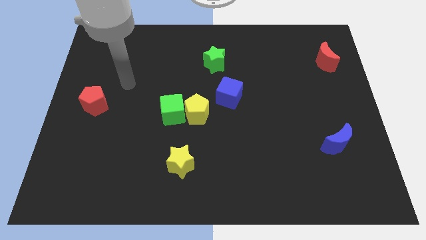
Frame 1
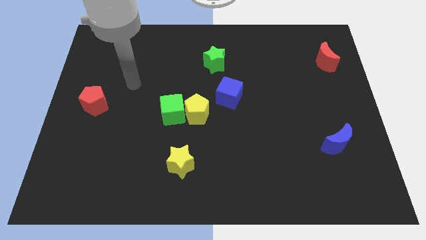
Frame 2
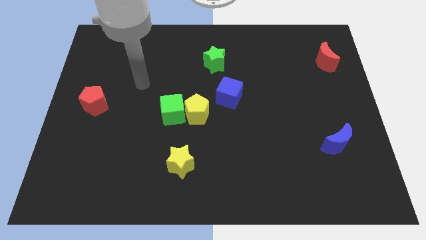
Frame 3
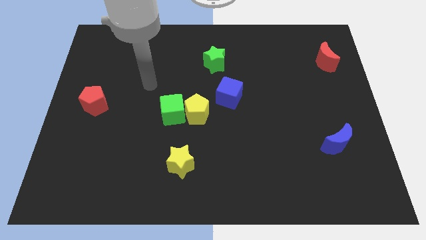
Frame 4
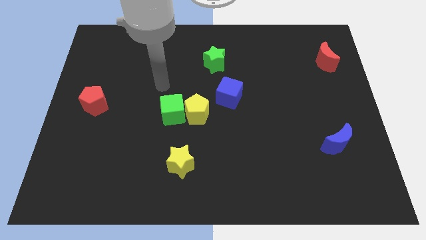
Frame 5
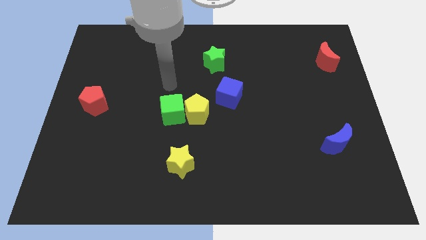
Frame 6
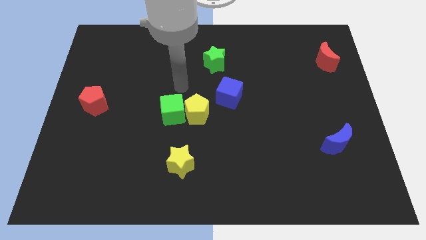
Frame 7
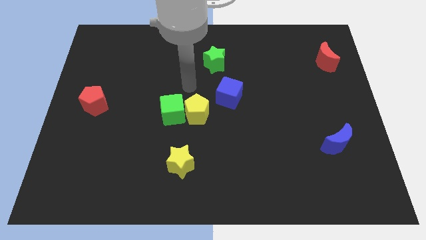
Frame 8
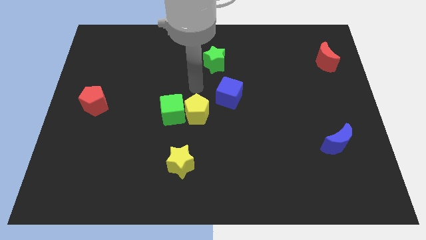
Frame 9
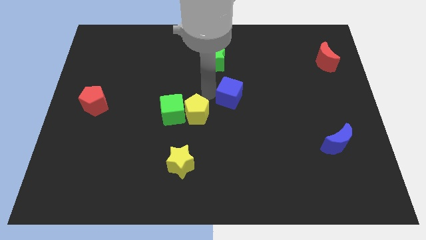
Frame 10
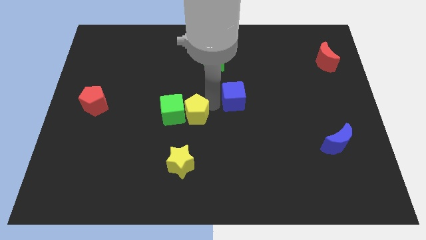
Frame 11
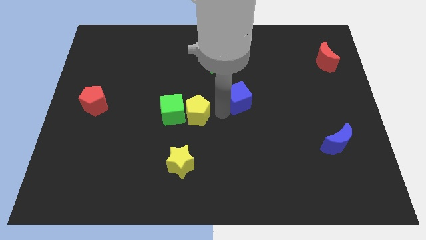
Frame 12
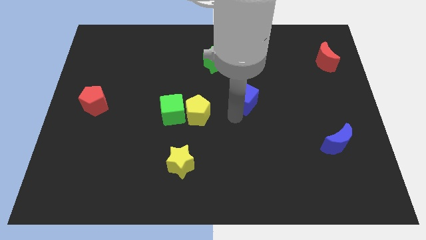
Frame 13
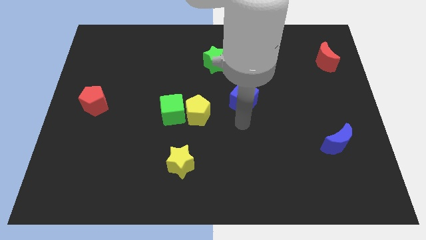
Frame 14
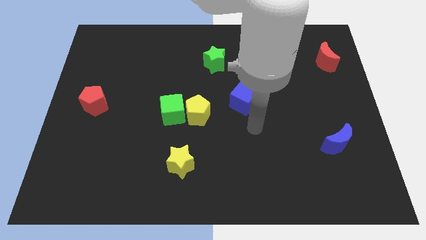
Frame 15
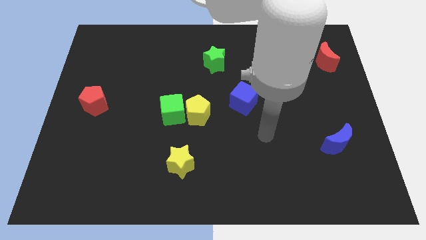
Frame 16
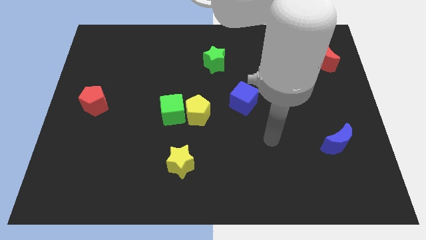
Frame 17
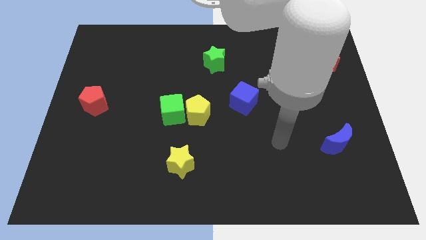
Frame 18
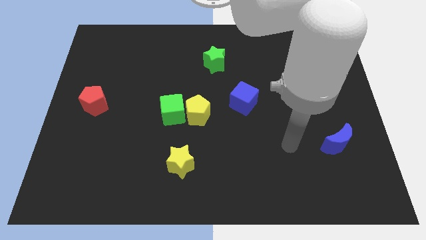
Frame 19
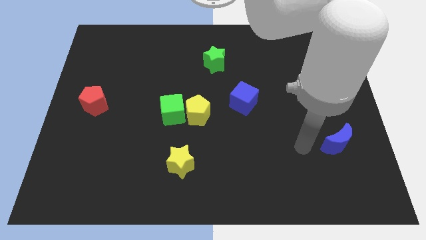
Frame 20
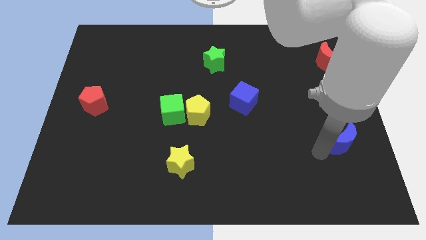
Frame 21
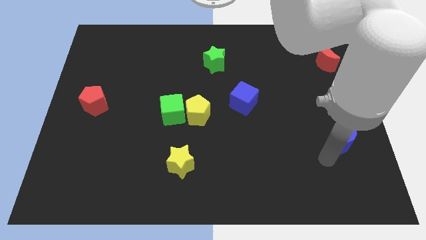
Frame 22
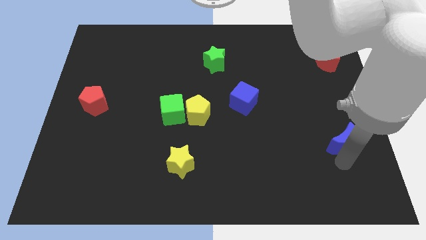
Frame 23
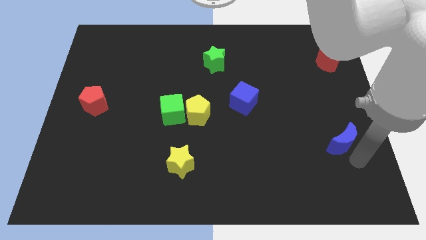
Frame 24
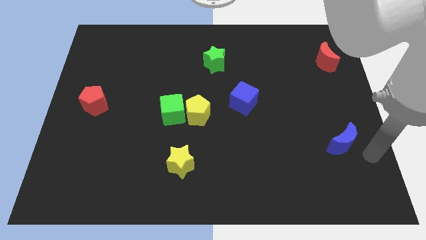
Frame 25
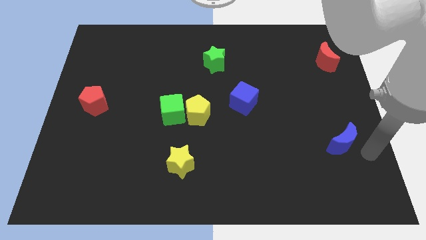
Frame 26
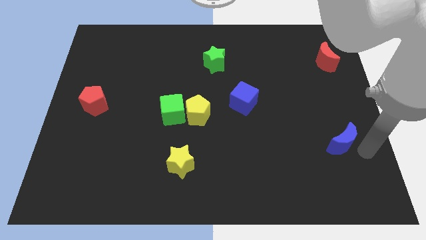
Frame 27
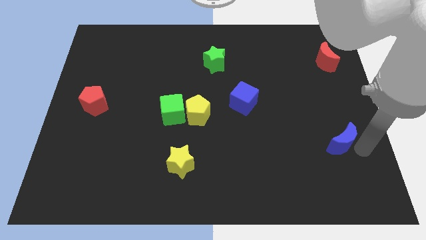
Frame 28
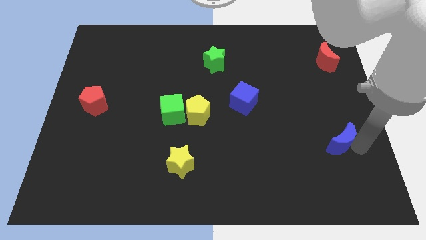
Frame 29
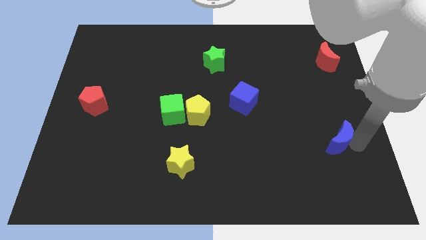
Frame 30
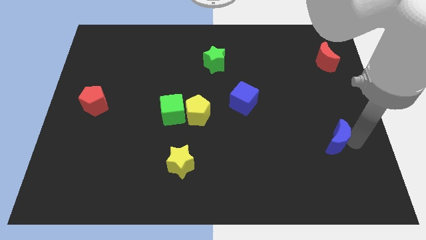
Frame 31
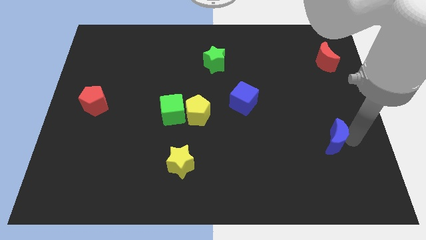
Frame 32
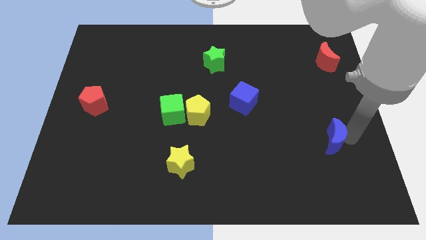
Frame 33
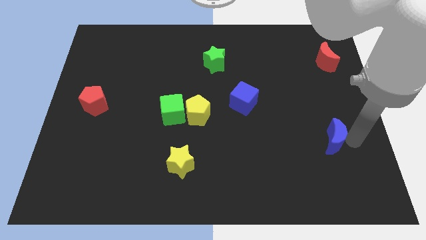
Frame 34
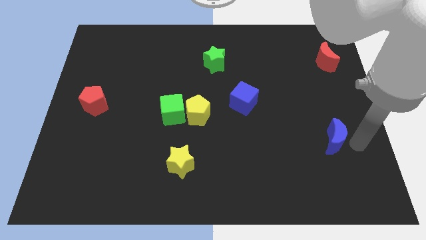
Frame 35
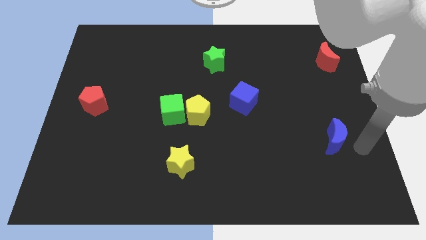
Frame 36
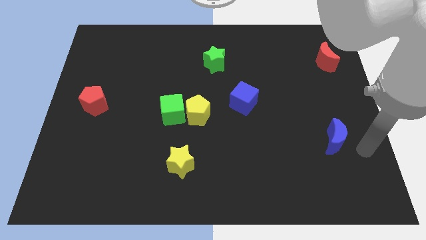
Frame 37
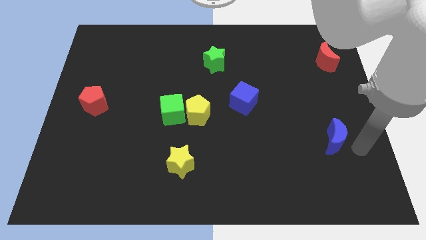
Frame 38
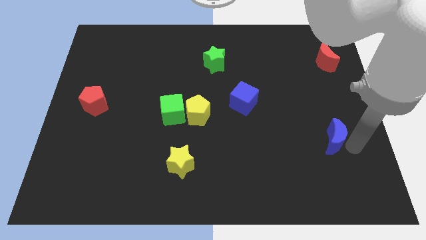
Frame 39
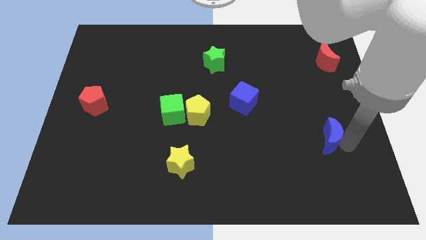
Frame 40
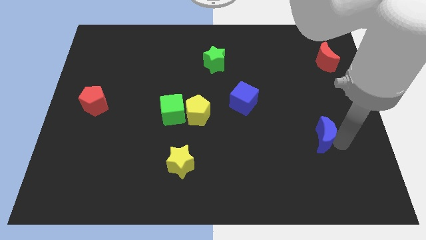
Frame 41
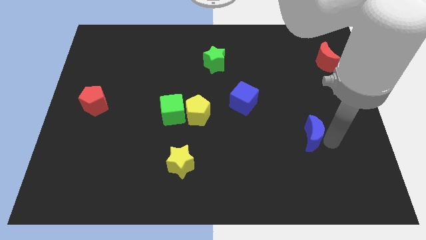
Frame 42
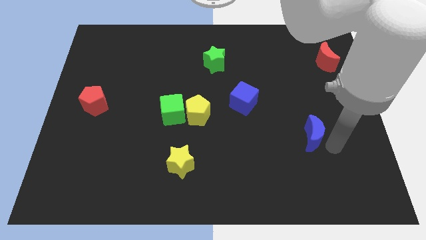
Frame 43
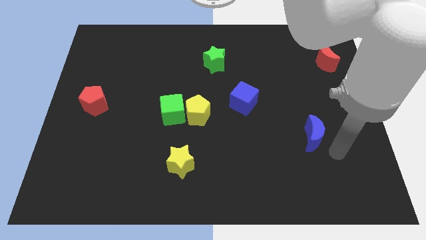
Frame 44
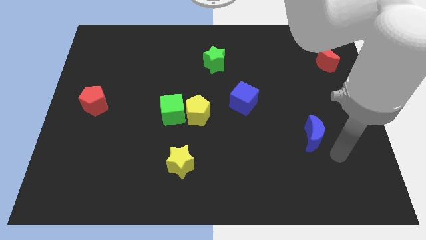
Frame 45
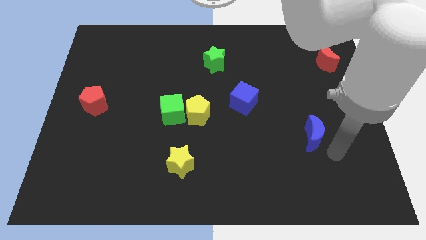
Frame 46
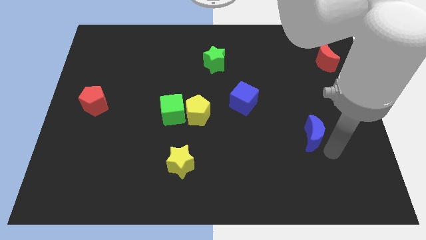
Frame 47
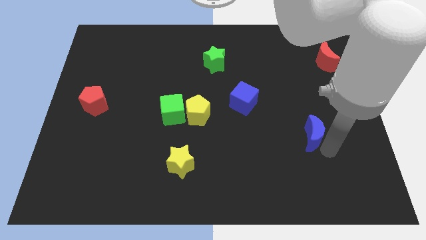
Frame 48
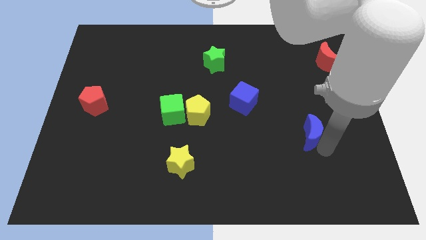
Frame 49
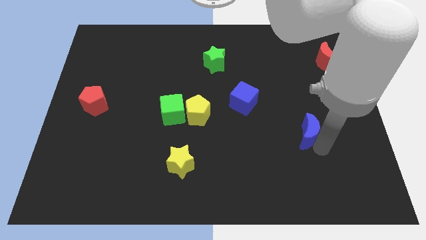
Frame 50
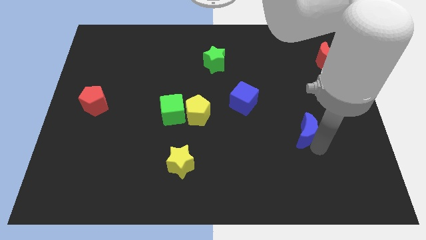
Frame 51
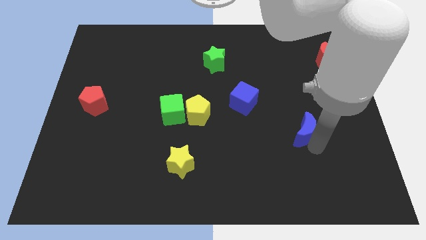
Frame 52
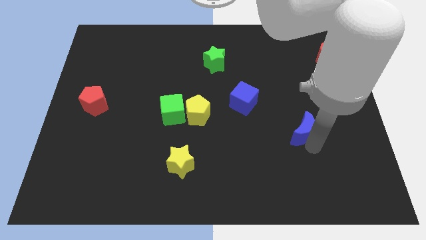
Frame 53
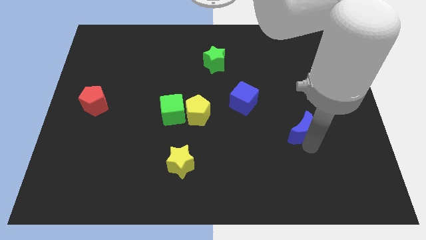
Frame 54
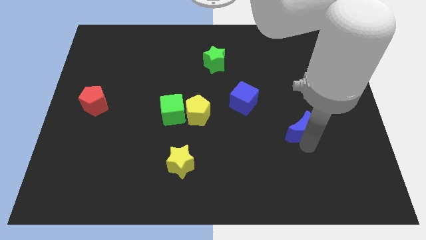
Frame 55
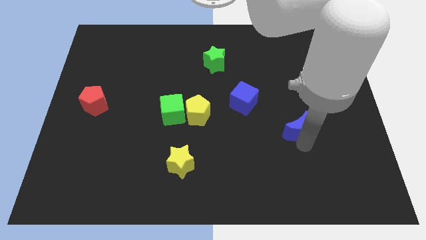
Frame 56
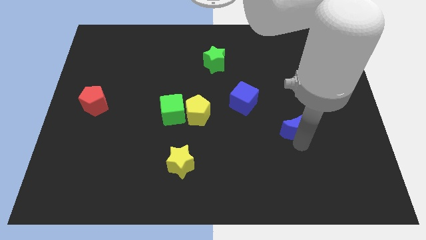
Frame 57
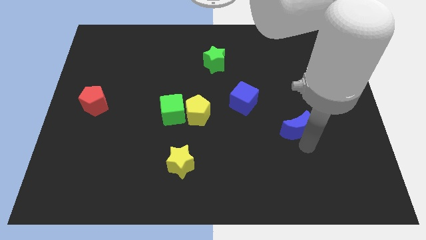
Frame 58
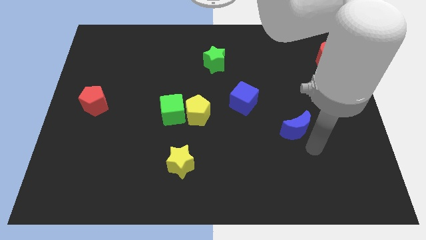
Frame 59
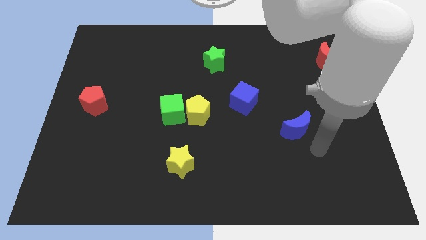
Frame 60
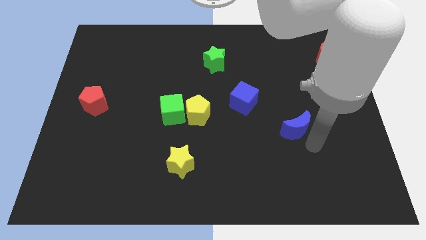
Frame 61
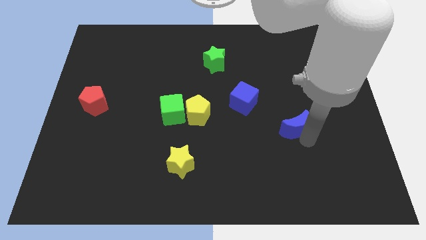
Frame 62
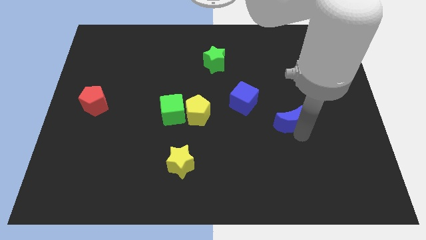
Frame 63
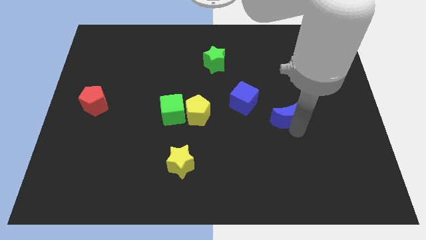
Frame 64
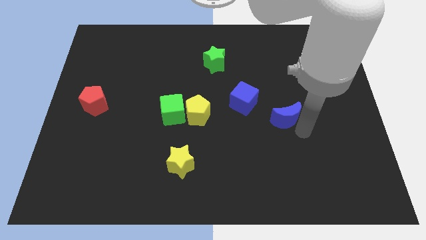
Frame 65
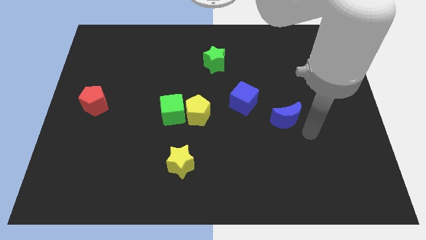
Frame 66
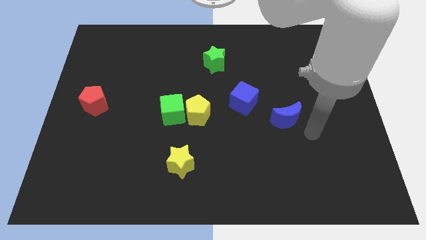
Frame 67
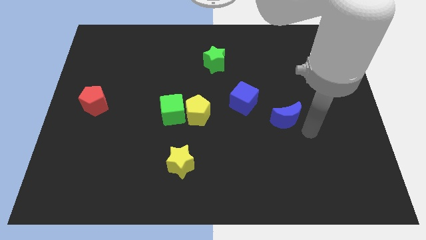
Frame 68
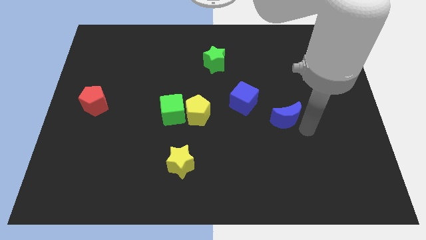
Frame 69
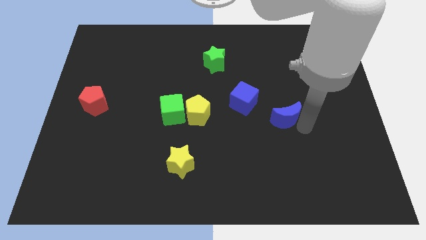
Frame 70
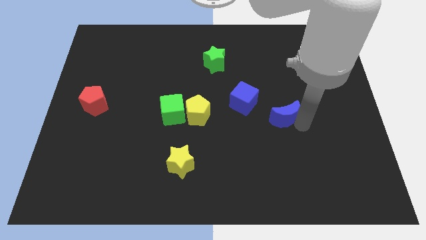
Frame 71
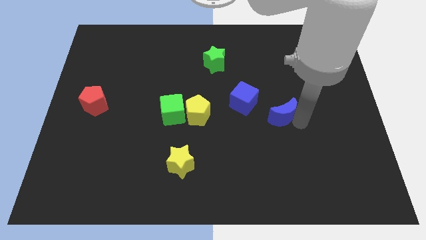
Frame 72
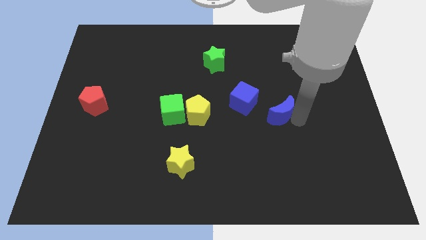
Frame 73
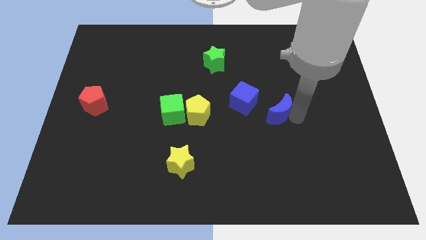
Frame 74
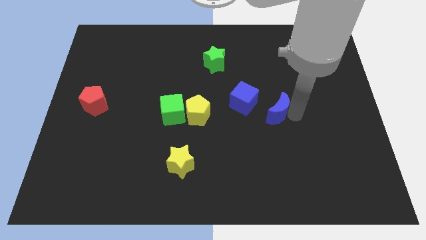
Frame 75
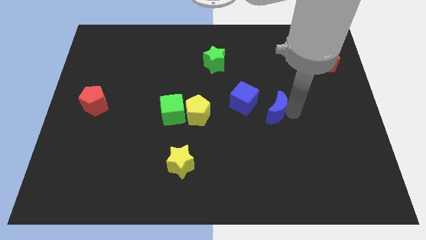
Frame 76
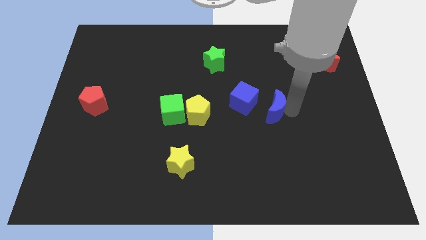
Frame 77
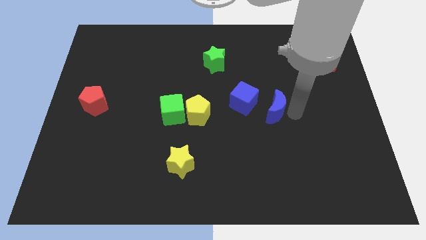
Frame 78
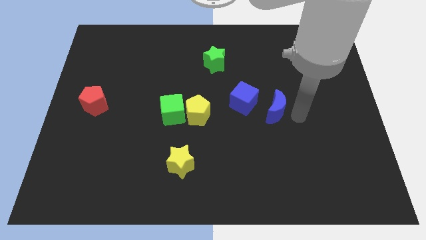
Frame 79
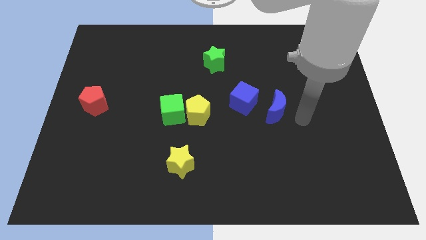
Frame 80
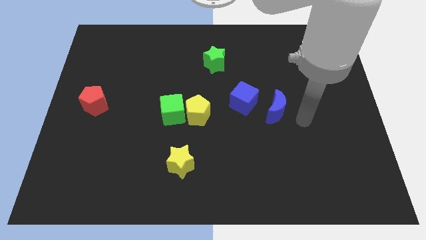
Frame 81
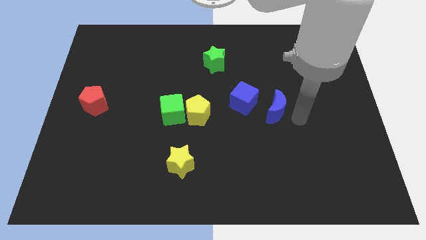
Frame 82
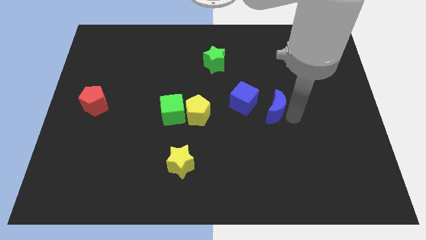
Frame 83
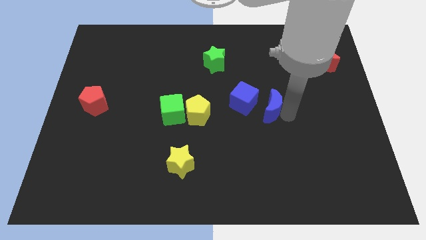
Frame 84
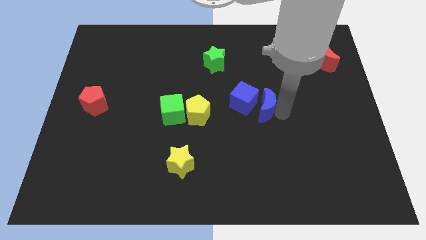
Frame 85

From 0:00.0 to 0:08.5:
put the blue moon to the blue cube
